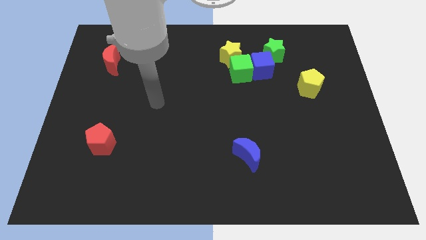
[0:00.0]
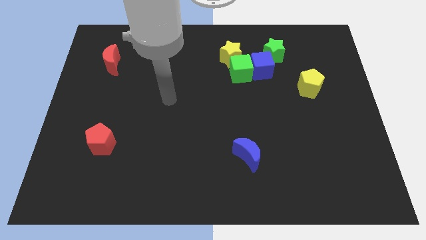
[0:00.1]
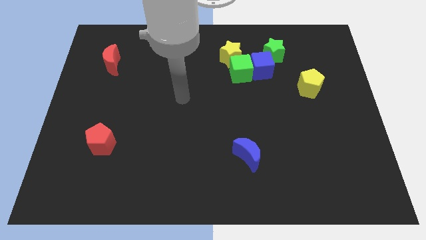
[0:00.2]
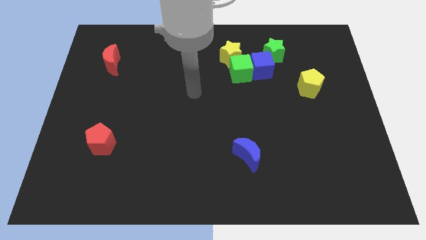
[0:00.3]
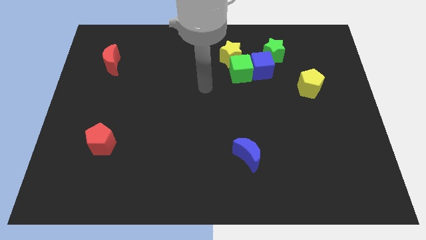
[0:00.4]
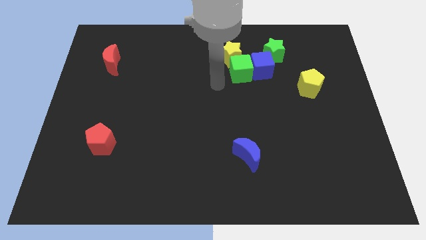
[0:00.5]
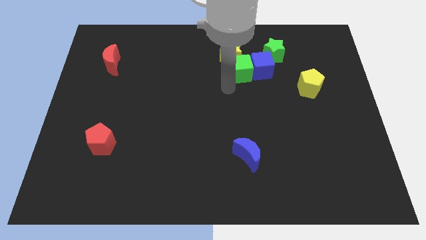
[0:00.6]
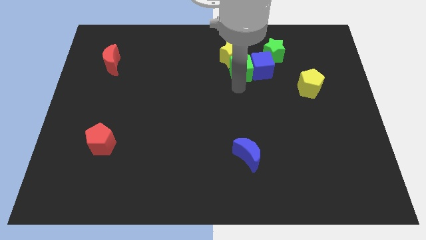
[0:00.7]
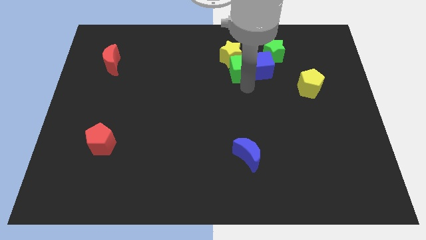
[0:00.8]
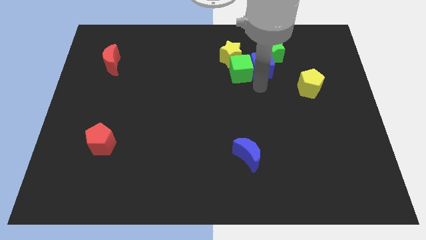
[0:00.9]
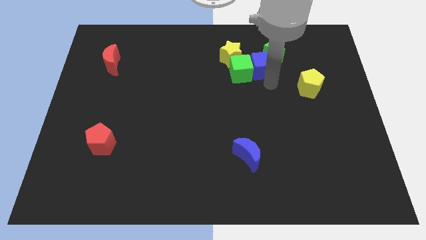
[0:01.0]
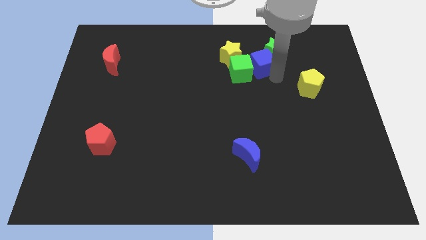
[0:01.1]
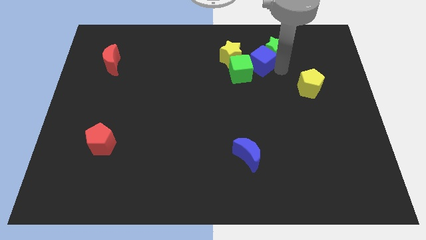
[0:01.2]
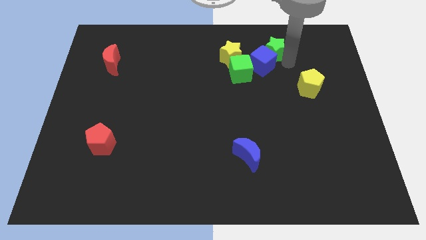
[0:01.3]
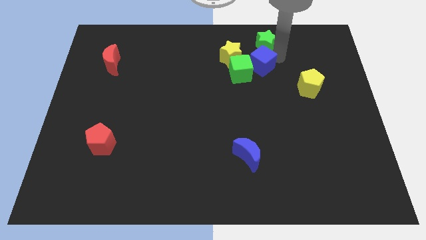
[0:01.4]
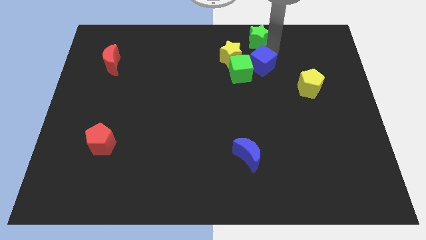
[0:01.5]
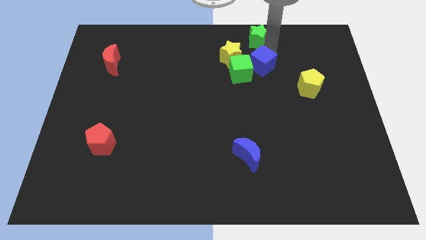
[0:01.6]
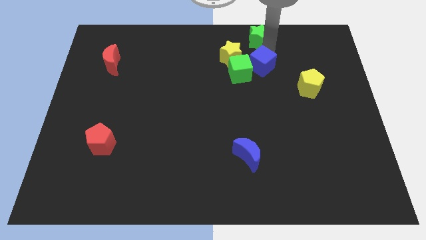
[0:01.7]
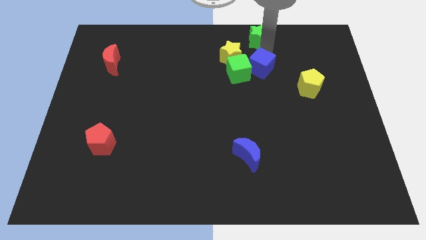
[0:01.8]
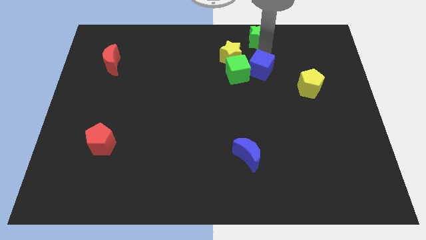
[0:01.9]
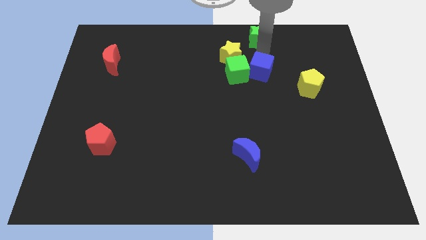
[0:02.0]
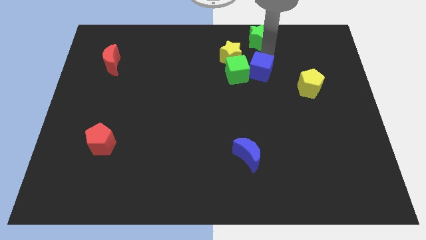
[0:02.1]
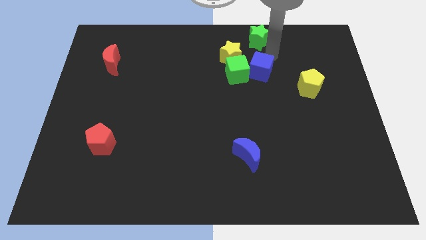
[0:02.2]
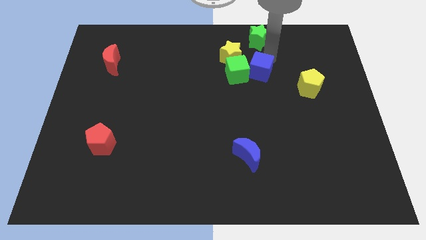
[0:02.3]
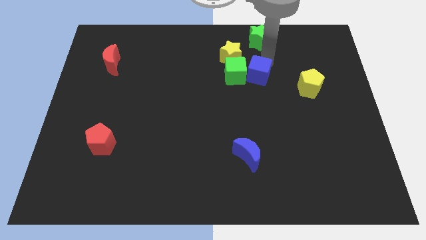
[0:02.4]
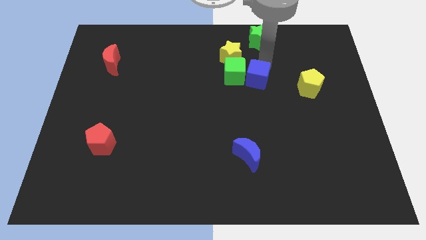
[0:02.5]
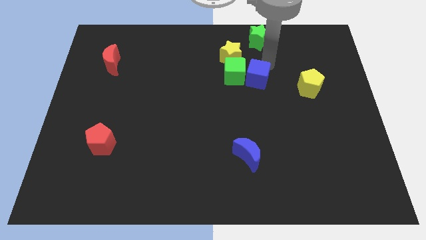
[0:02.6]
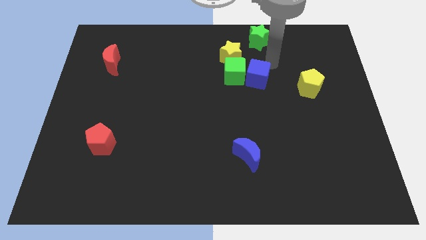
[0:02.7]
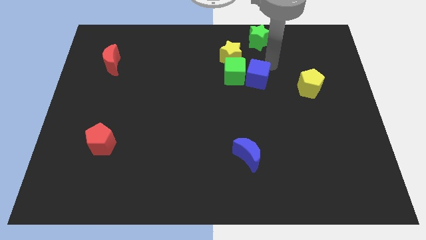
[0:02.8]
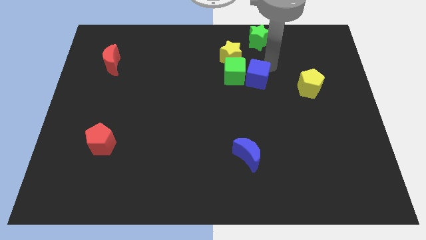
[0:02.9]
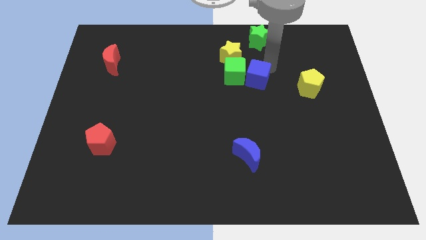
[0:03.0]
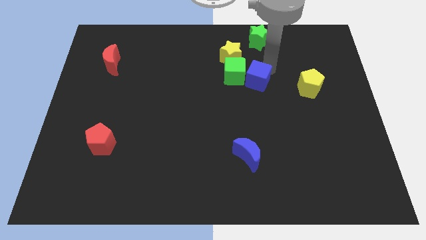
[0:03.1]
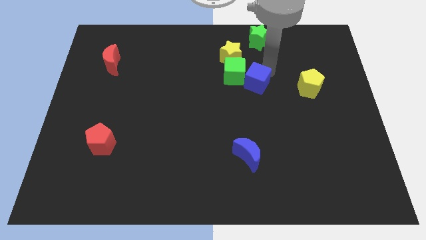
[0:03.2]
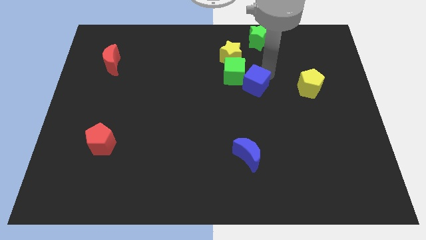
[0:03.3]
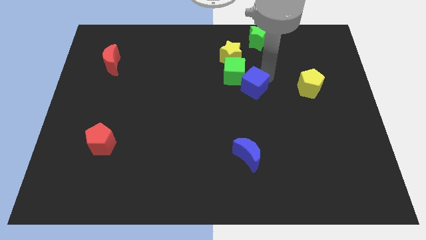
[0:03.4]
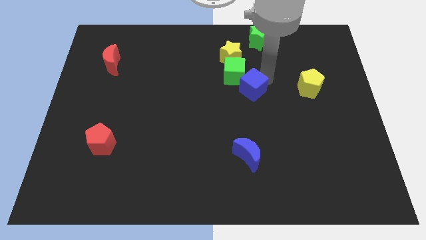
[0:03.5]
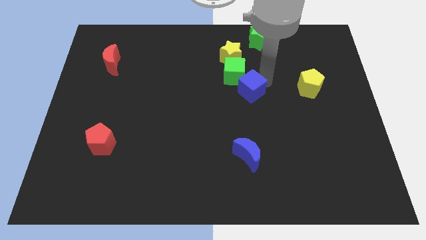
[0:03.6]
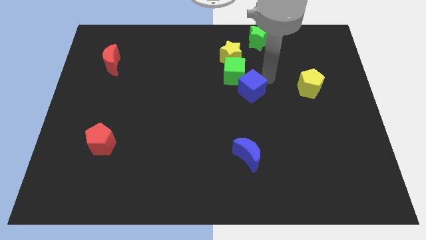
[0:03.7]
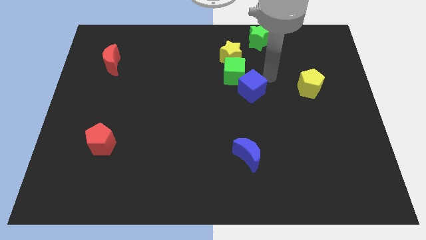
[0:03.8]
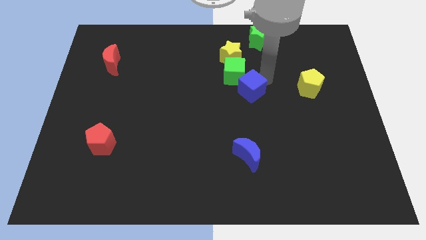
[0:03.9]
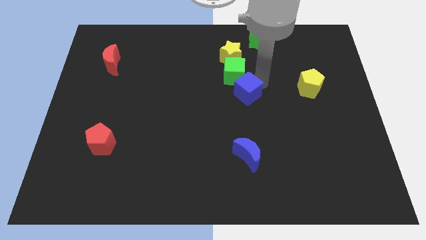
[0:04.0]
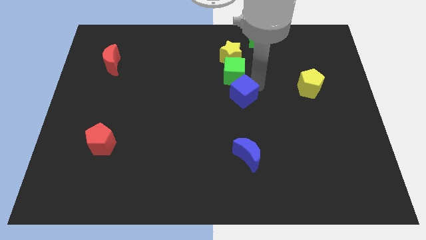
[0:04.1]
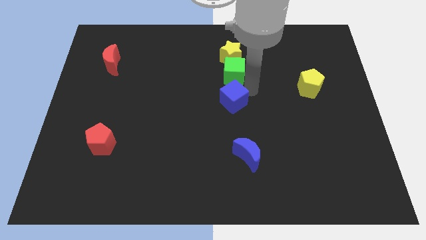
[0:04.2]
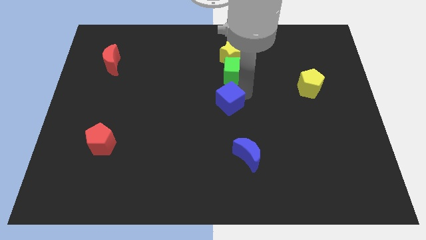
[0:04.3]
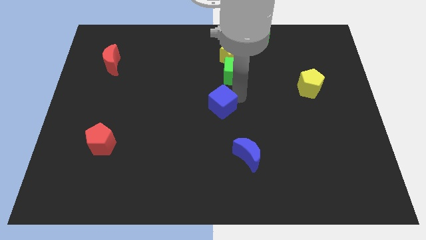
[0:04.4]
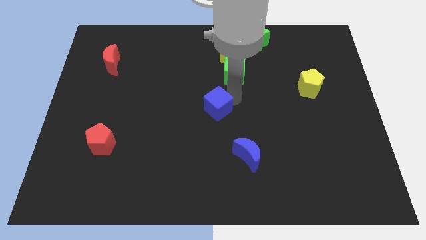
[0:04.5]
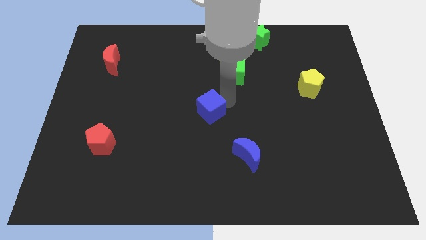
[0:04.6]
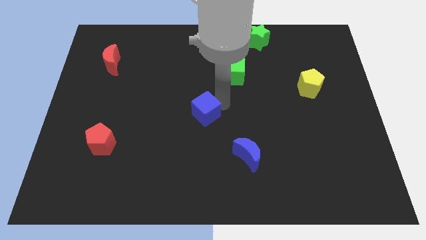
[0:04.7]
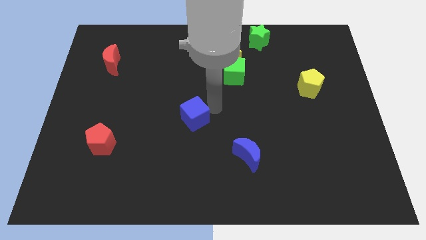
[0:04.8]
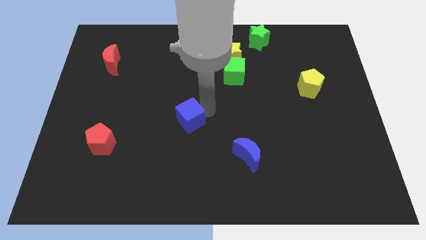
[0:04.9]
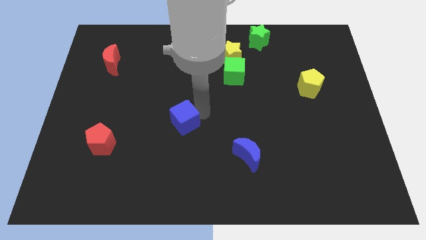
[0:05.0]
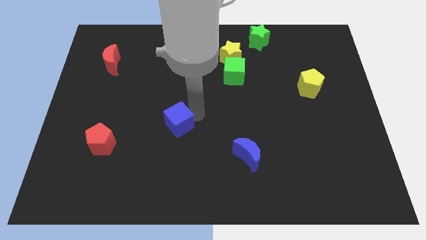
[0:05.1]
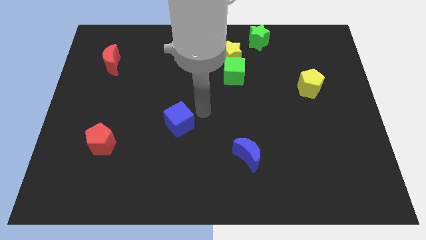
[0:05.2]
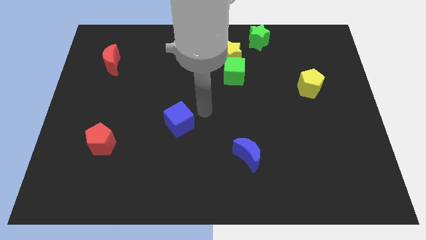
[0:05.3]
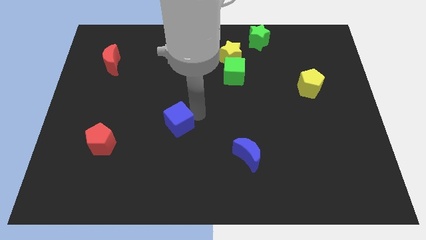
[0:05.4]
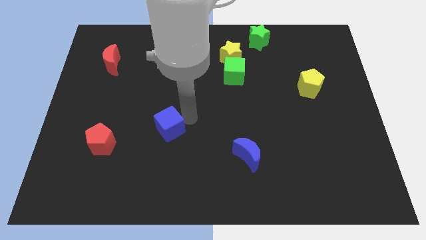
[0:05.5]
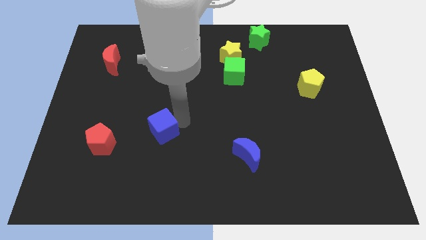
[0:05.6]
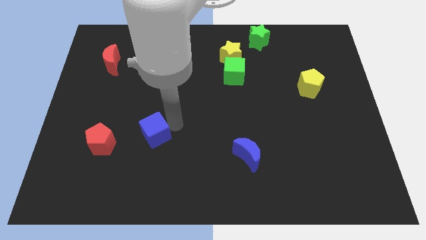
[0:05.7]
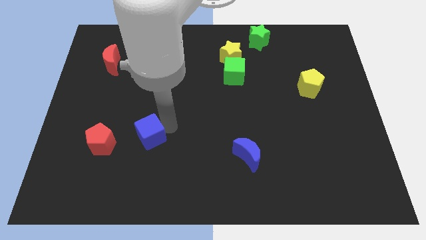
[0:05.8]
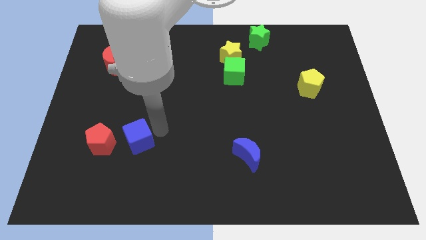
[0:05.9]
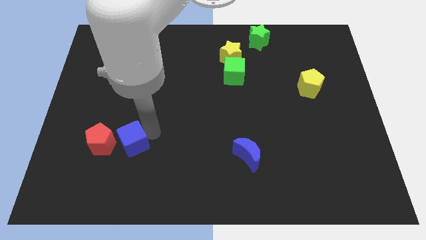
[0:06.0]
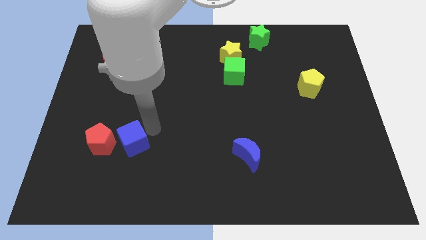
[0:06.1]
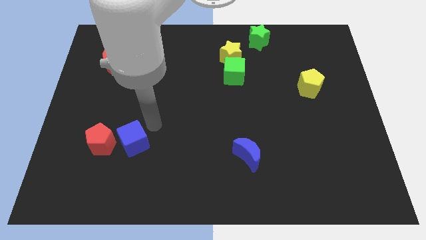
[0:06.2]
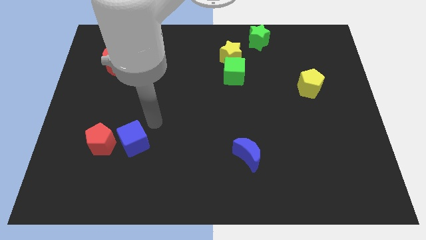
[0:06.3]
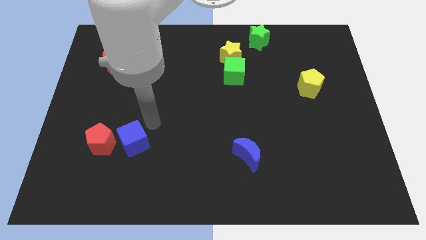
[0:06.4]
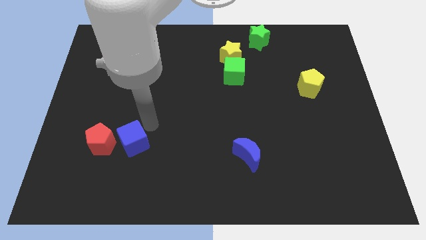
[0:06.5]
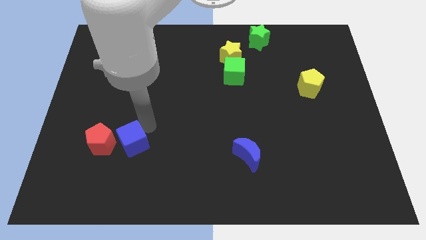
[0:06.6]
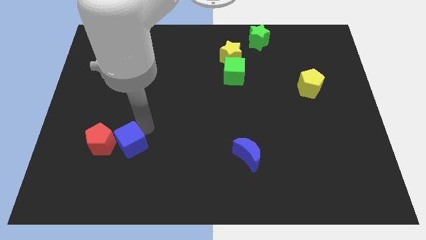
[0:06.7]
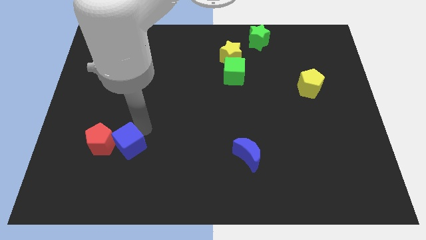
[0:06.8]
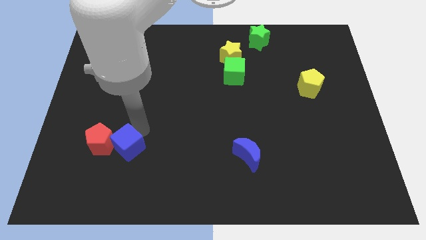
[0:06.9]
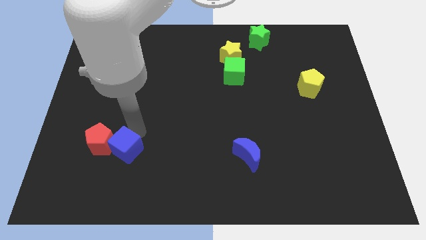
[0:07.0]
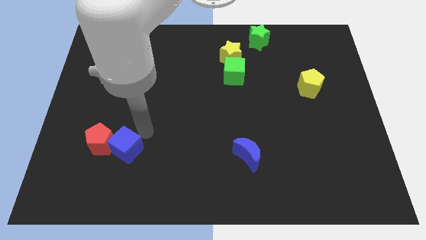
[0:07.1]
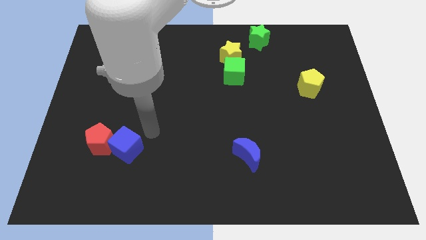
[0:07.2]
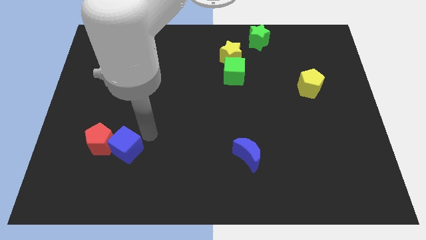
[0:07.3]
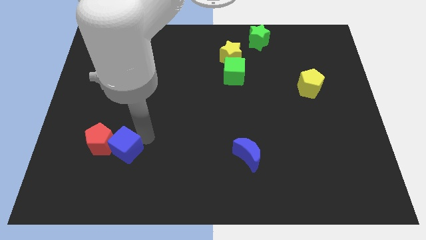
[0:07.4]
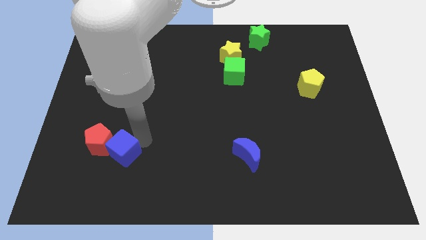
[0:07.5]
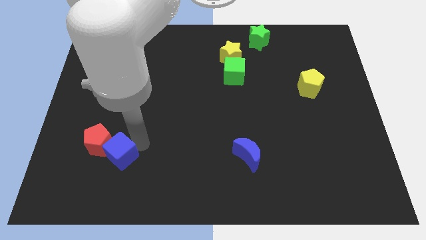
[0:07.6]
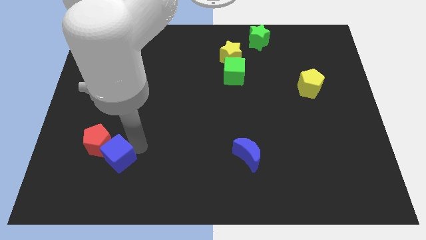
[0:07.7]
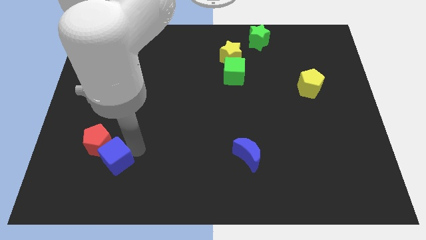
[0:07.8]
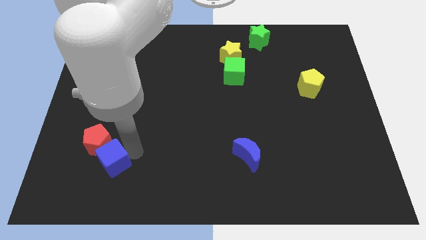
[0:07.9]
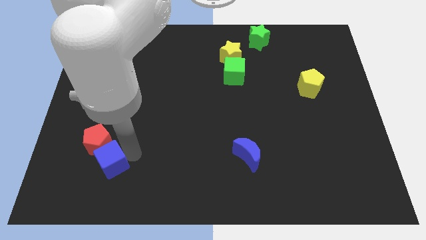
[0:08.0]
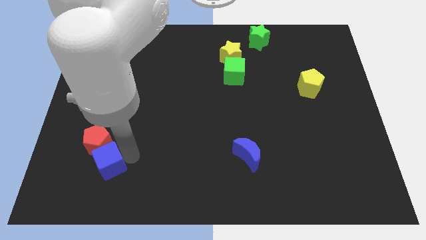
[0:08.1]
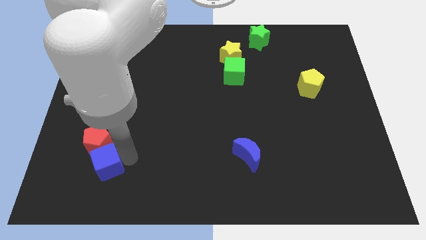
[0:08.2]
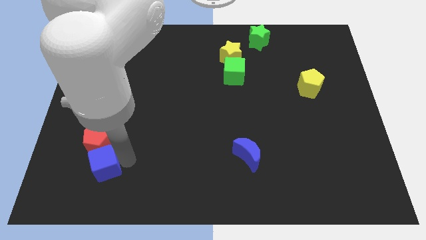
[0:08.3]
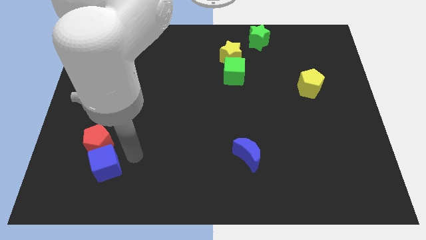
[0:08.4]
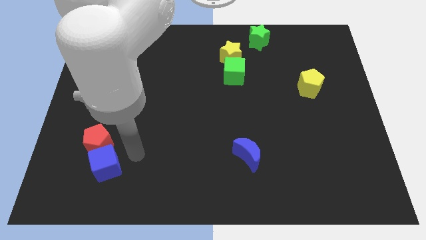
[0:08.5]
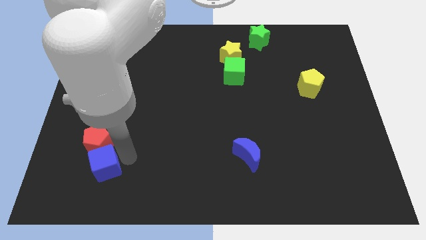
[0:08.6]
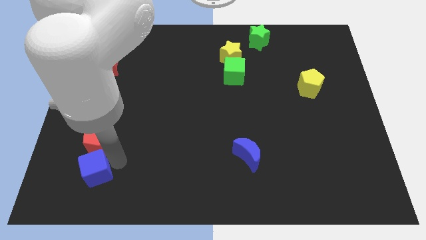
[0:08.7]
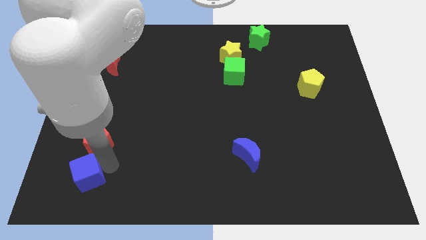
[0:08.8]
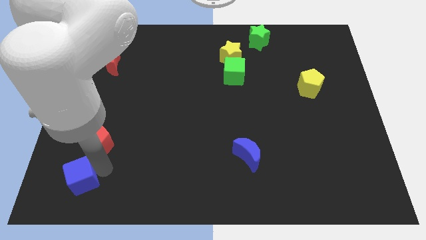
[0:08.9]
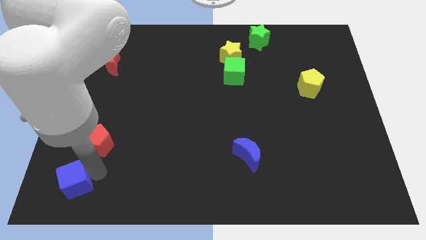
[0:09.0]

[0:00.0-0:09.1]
move the blue cube to the bottom left of the board
